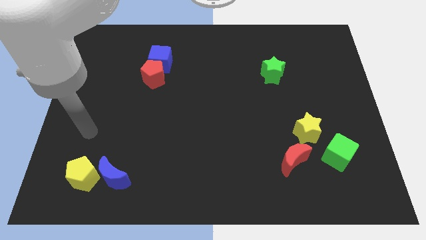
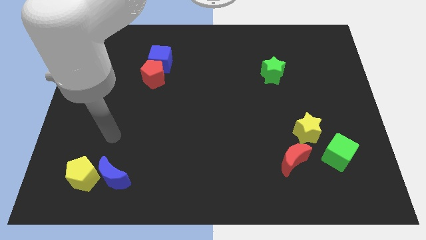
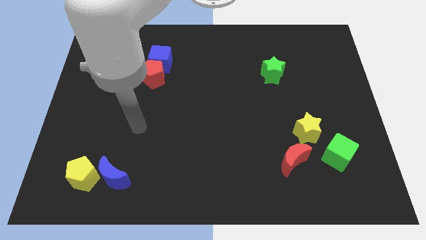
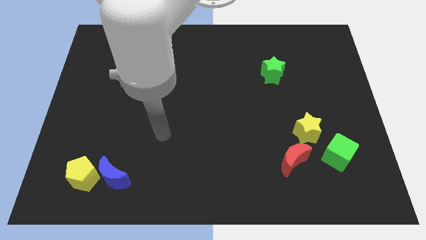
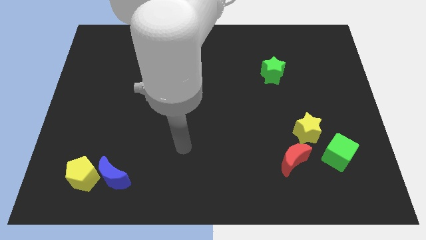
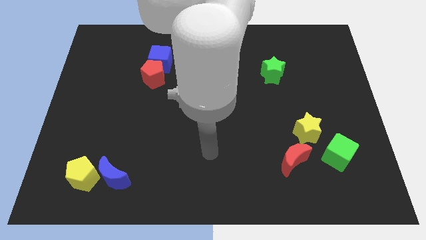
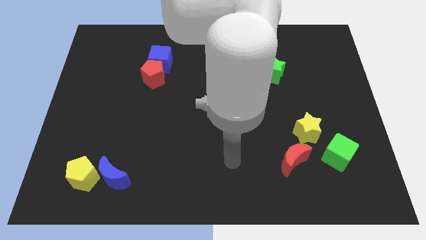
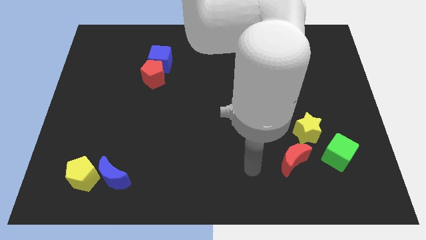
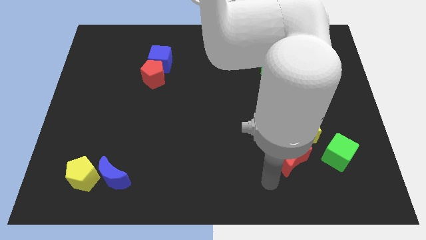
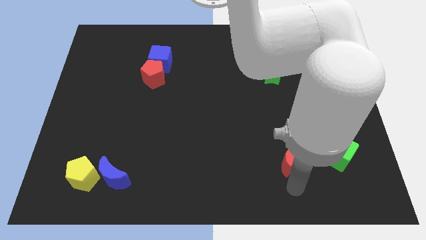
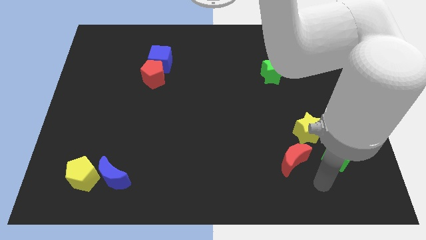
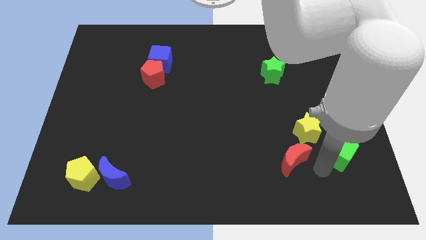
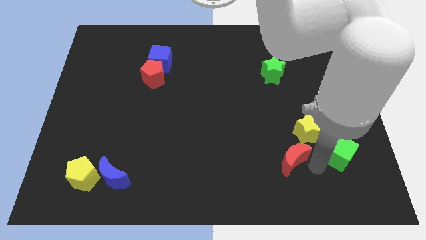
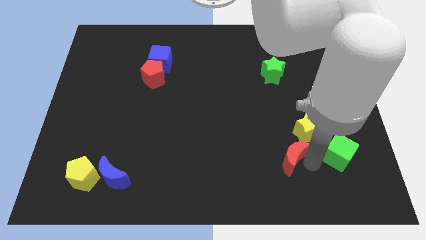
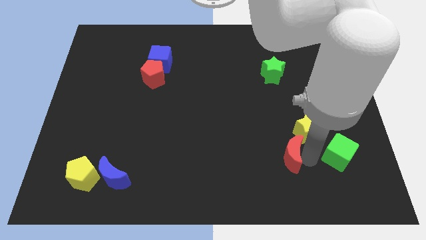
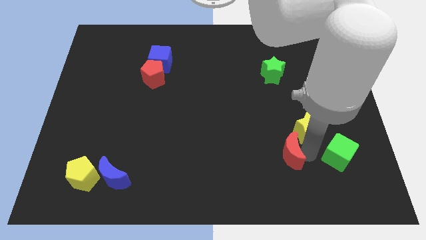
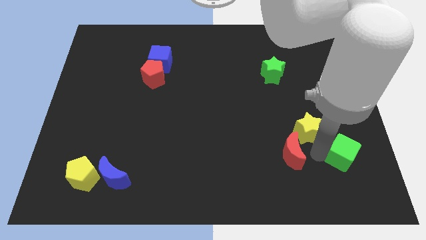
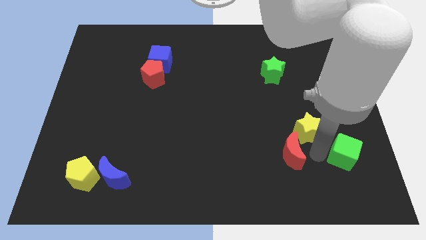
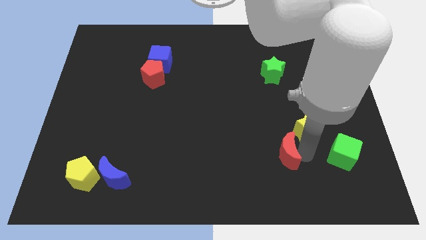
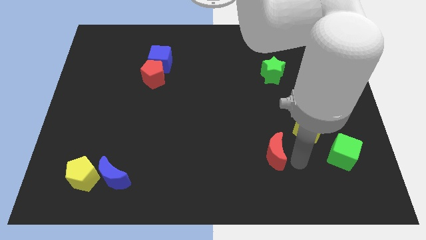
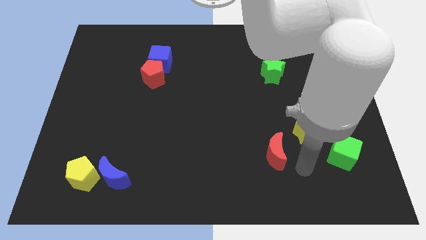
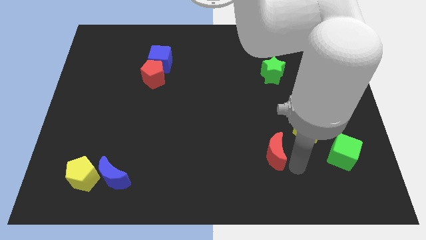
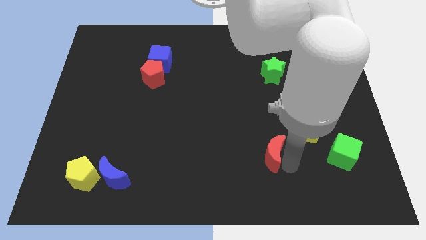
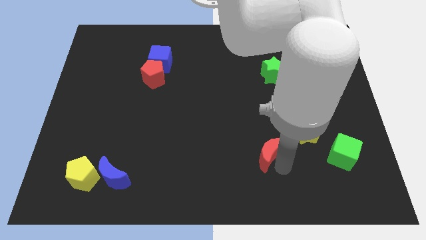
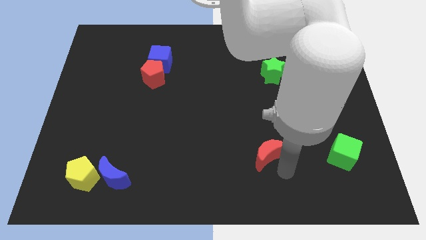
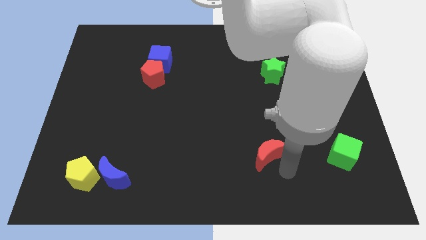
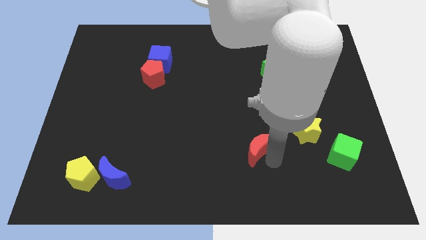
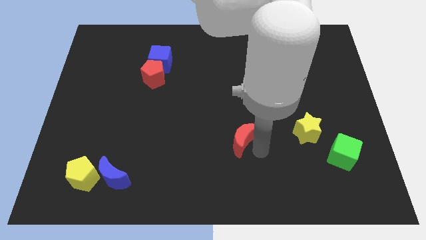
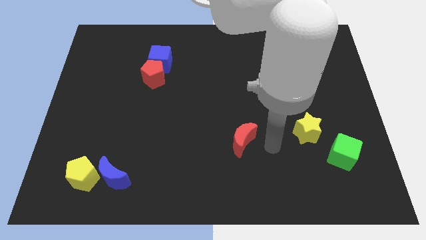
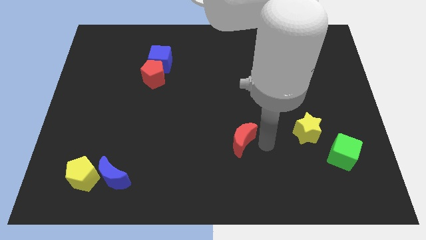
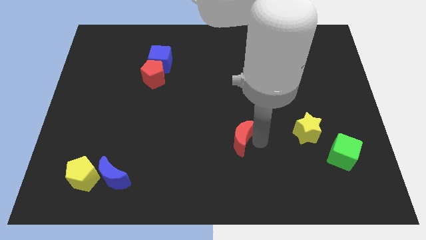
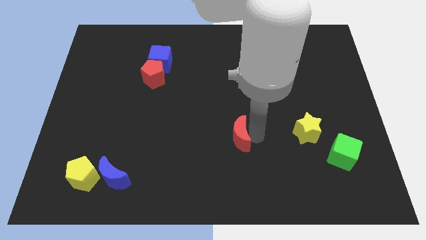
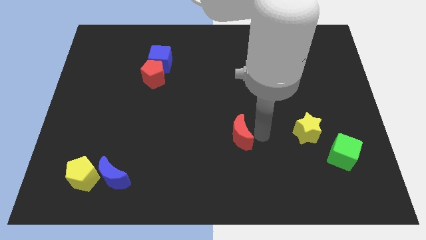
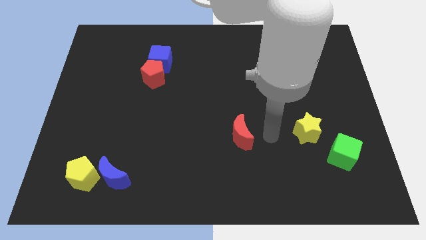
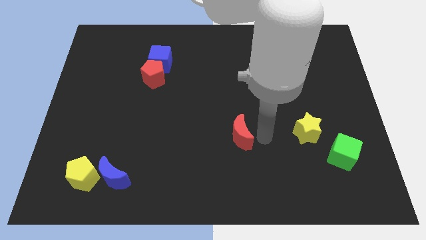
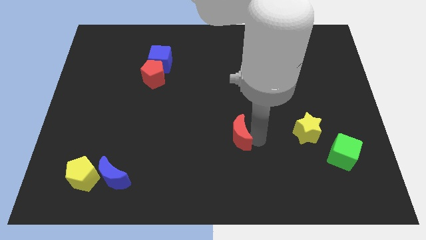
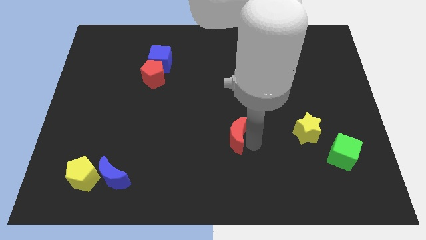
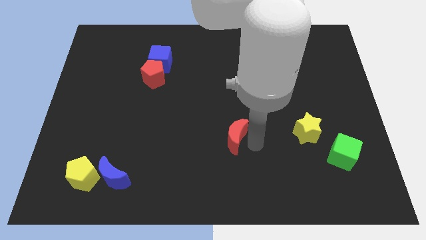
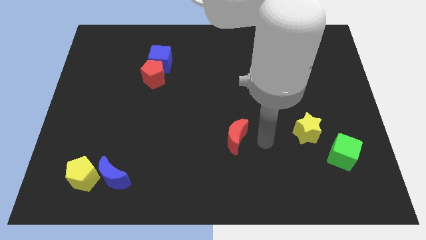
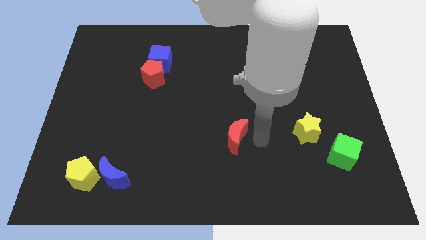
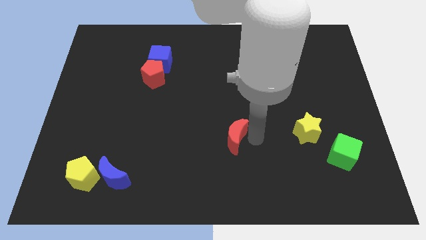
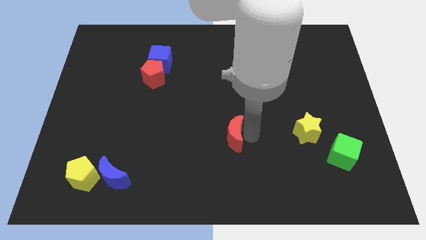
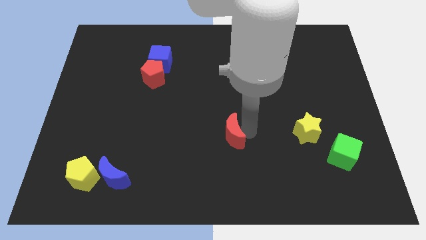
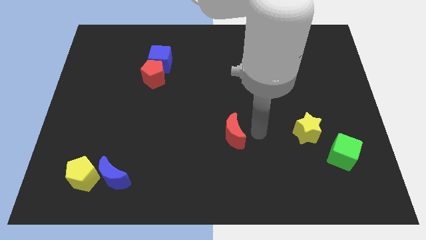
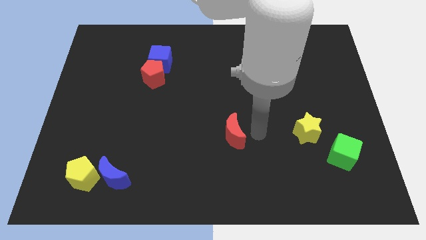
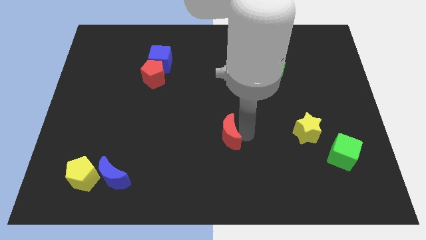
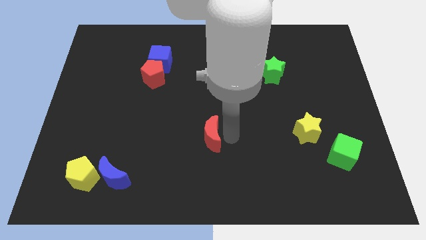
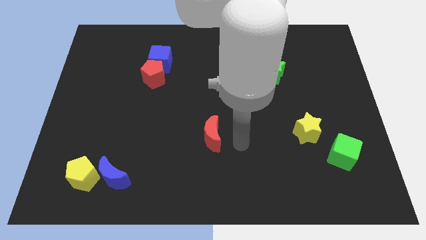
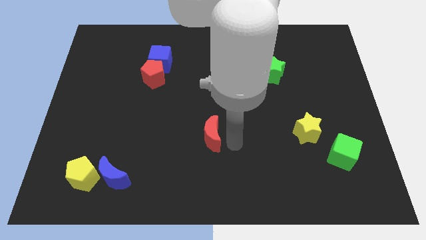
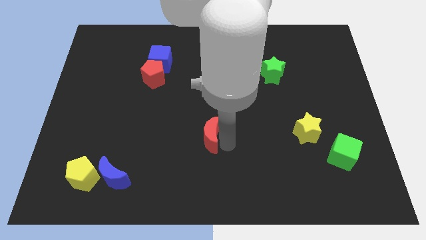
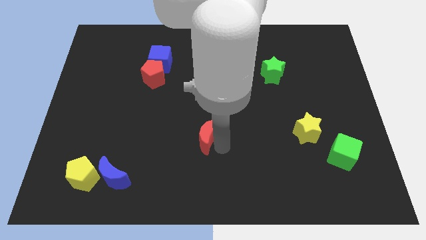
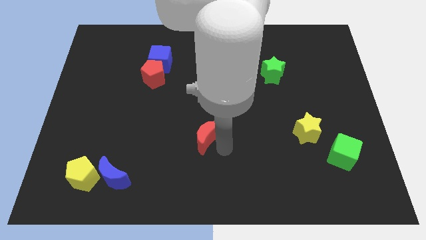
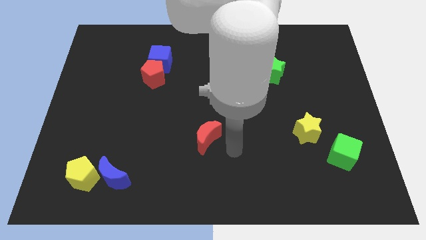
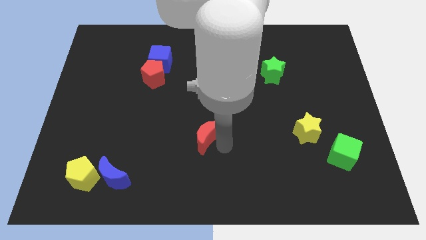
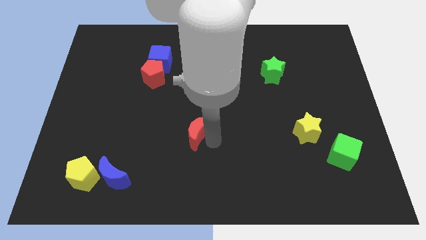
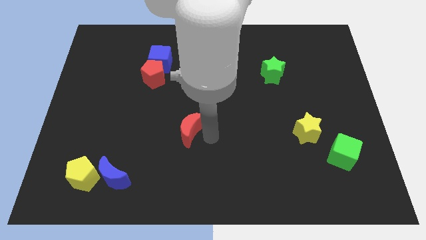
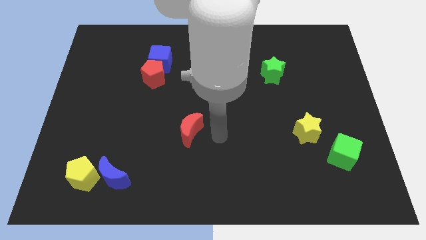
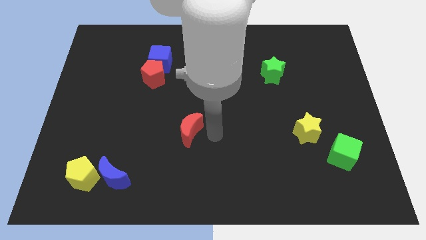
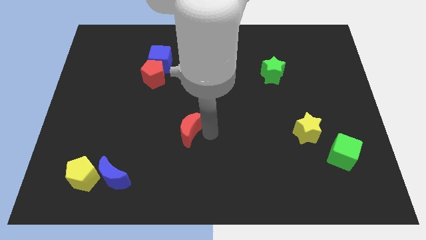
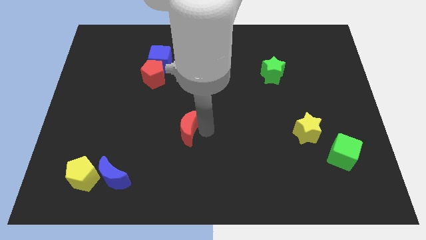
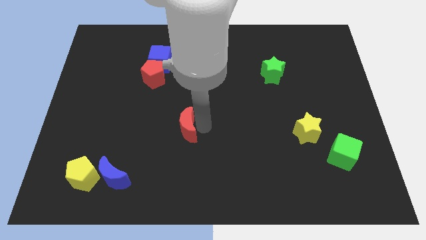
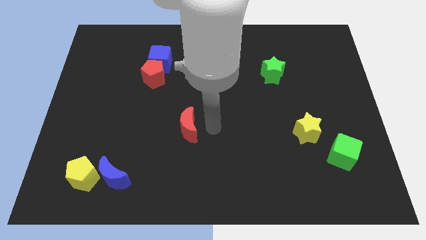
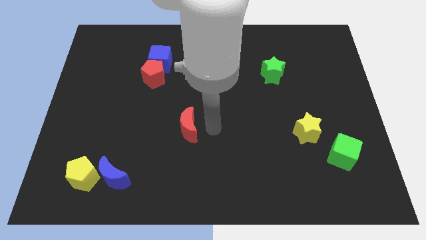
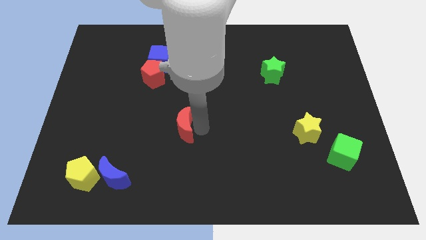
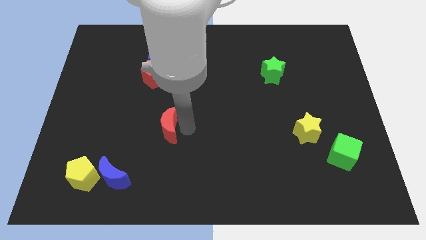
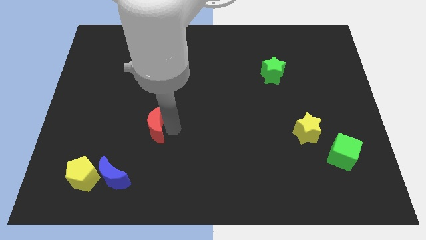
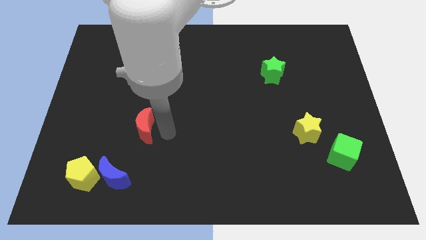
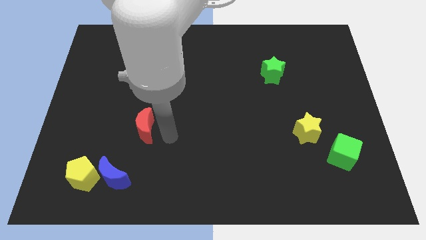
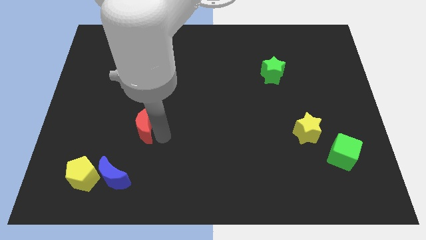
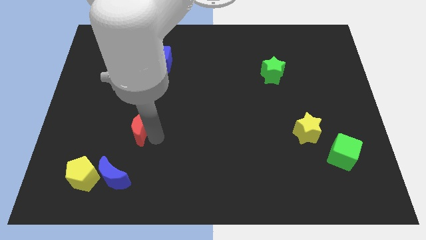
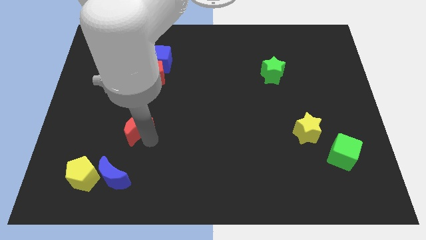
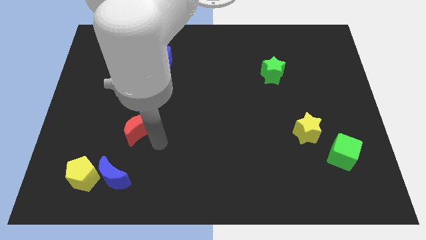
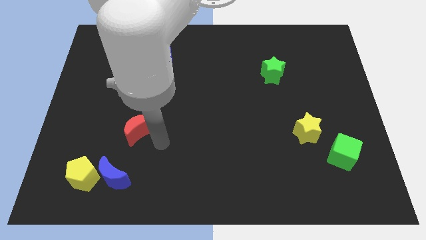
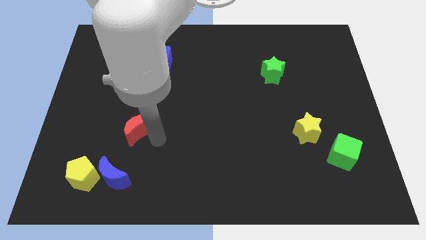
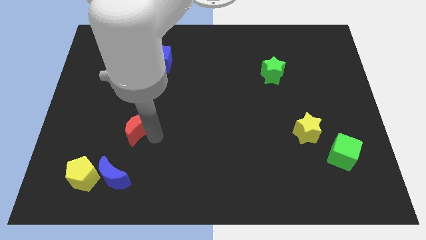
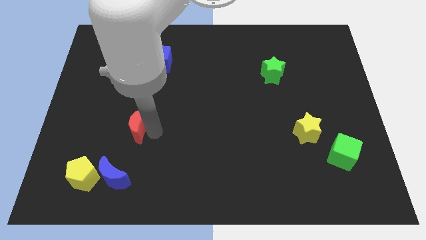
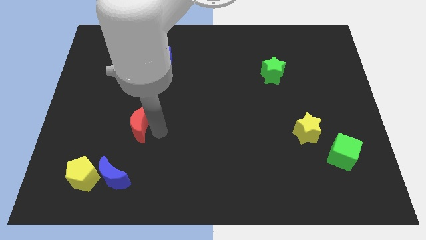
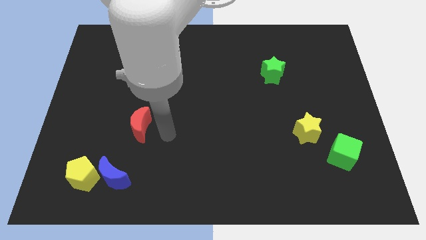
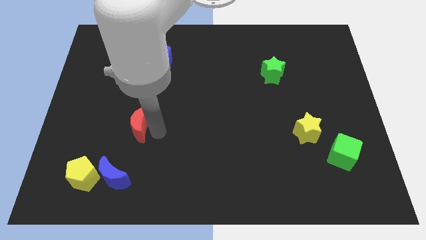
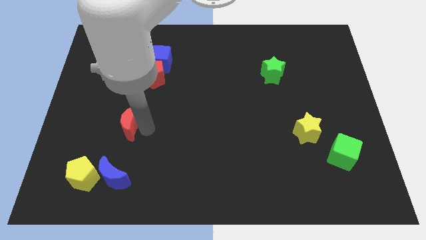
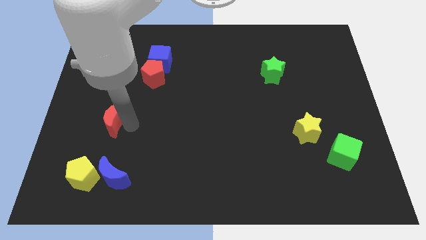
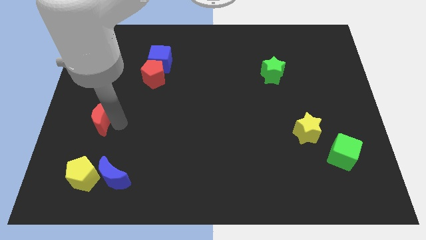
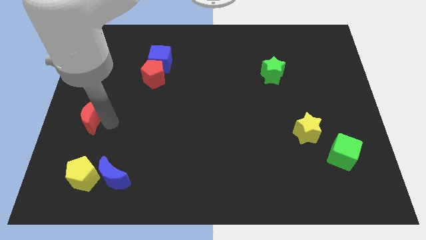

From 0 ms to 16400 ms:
slide the red moon to the center left
